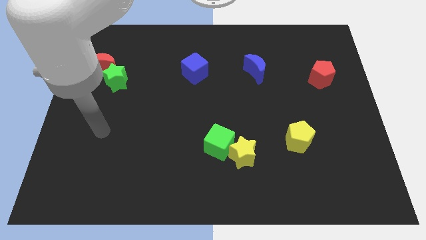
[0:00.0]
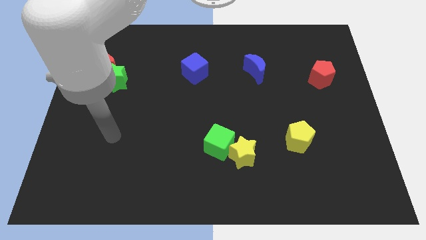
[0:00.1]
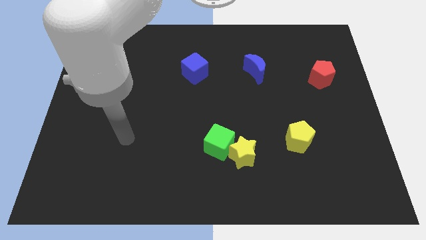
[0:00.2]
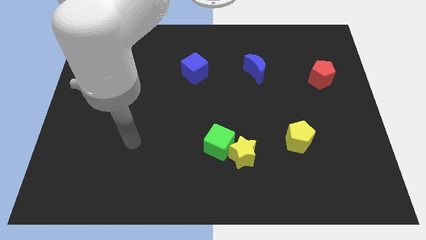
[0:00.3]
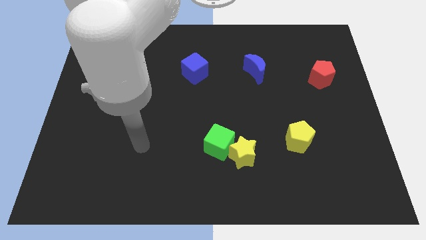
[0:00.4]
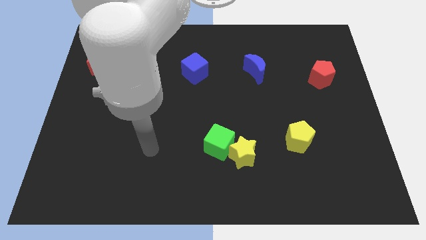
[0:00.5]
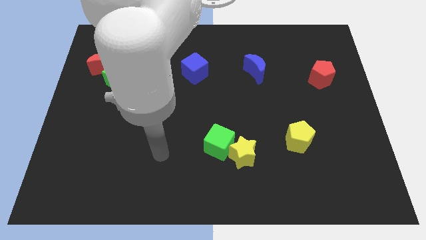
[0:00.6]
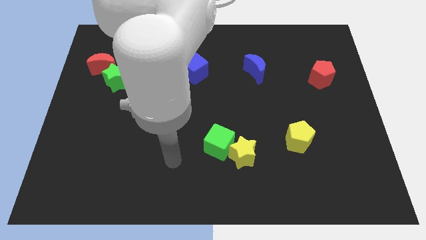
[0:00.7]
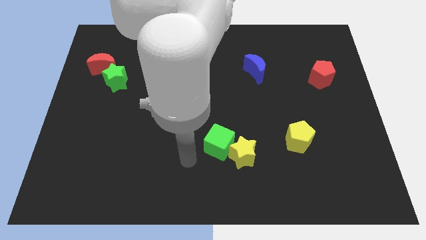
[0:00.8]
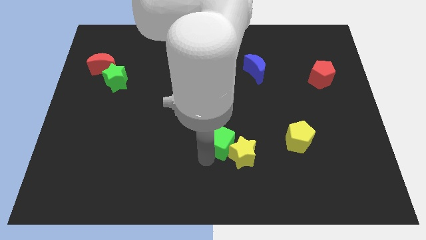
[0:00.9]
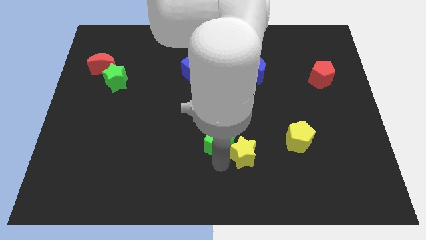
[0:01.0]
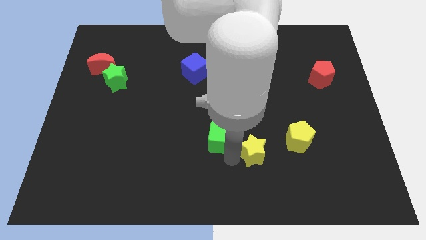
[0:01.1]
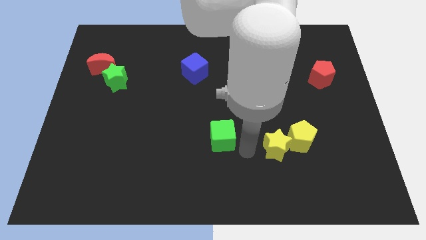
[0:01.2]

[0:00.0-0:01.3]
pull the green cube apart from the yellow star

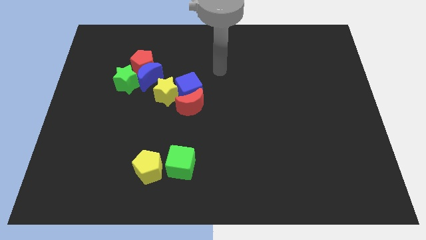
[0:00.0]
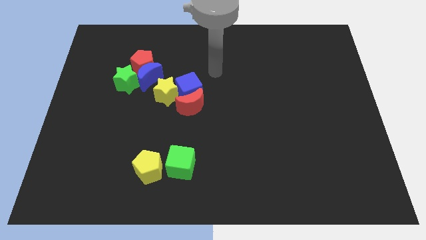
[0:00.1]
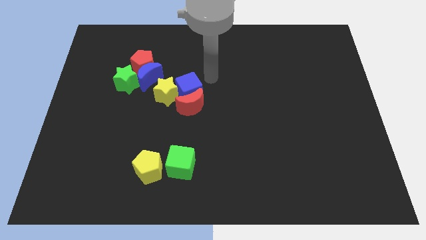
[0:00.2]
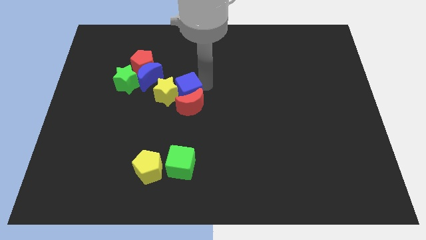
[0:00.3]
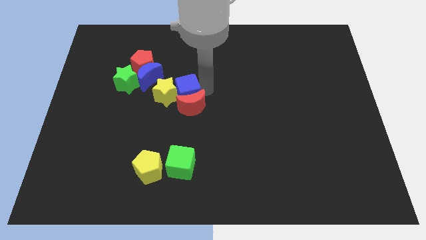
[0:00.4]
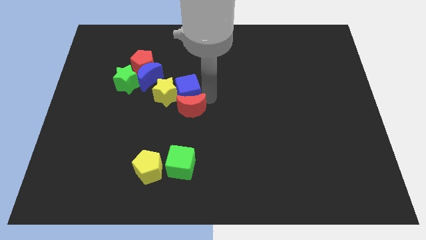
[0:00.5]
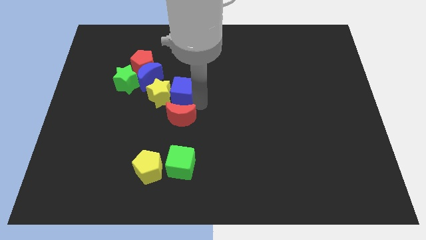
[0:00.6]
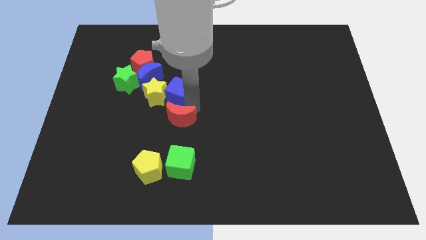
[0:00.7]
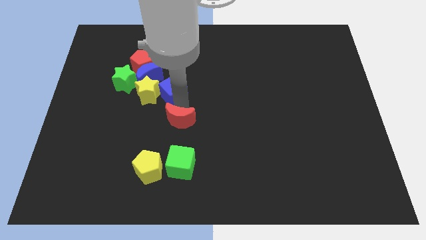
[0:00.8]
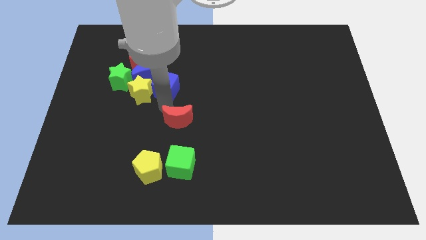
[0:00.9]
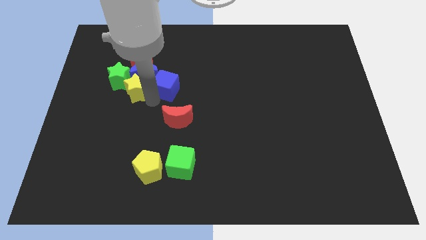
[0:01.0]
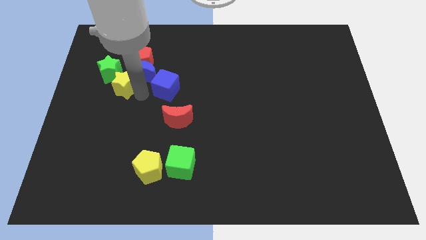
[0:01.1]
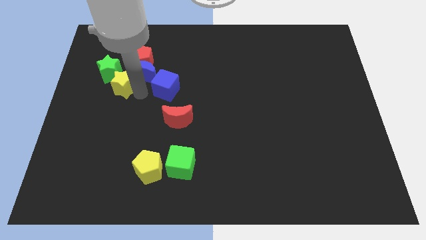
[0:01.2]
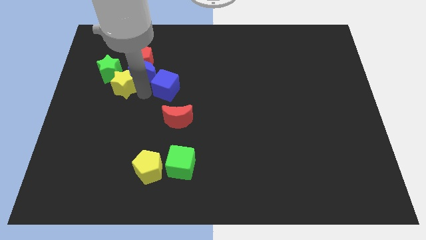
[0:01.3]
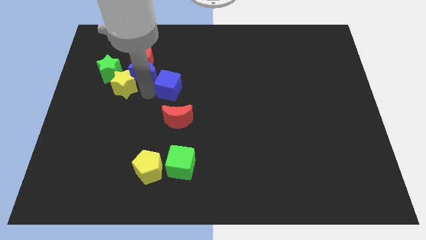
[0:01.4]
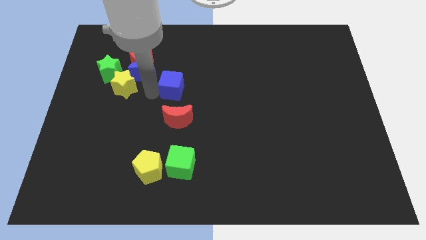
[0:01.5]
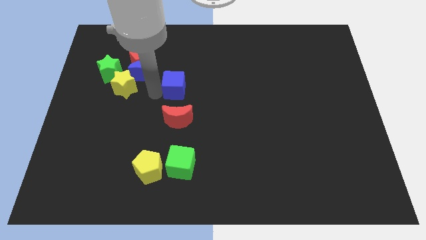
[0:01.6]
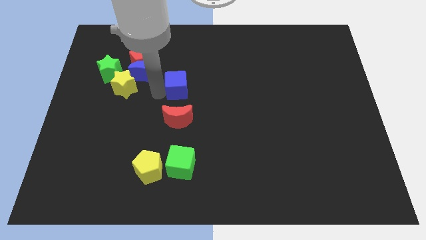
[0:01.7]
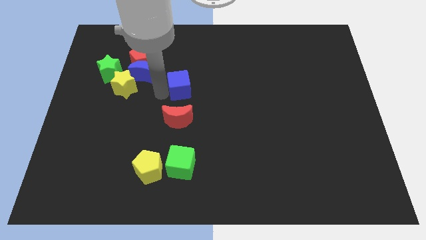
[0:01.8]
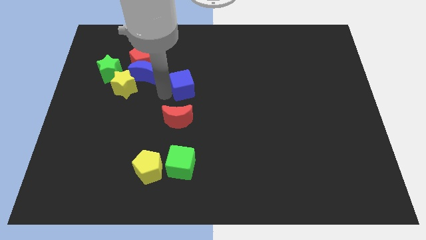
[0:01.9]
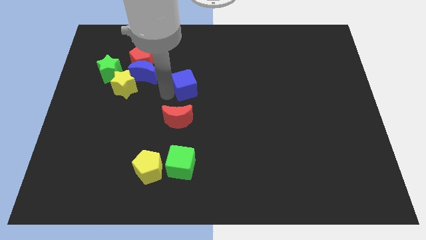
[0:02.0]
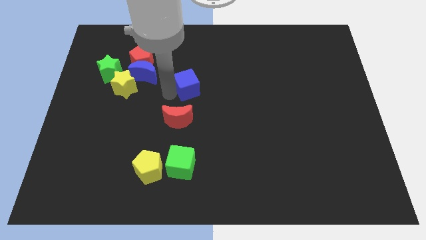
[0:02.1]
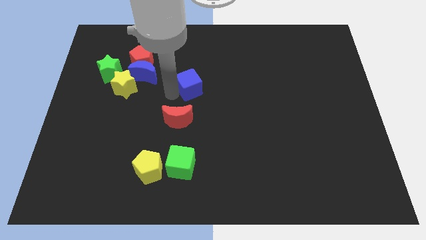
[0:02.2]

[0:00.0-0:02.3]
move the blue cube away from the red moon and yellow star

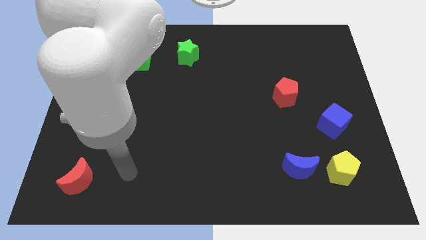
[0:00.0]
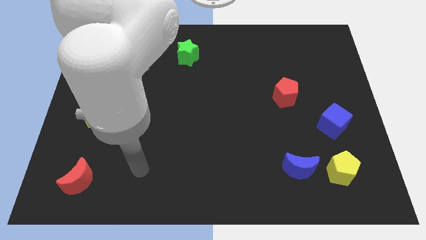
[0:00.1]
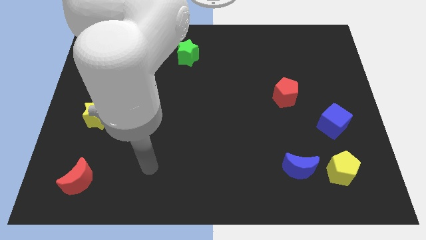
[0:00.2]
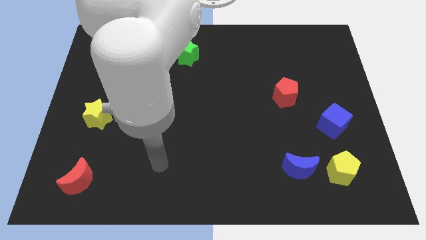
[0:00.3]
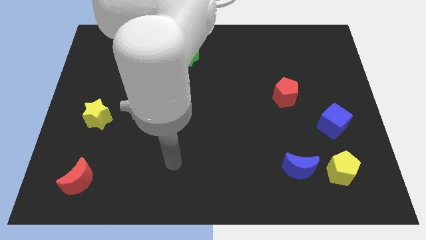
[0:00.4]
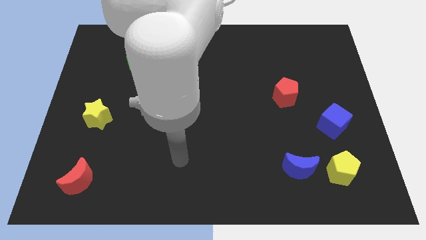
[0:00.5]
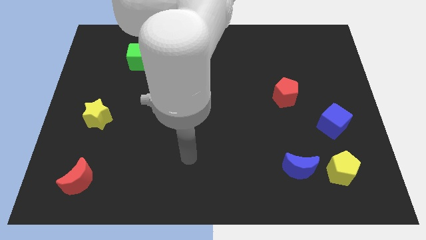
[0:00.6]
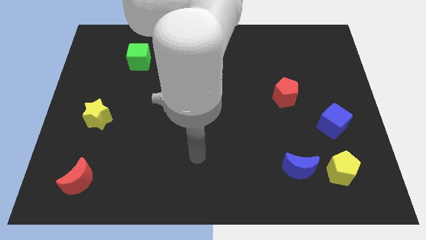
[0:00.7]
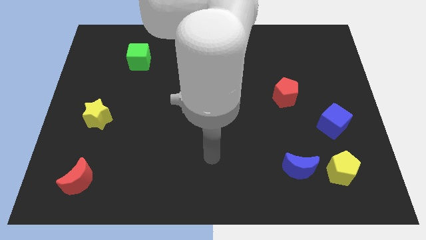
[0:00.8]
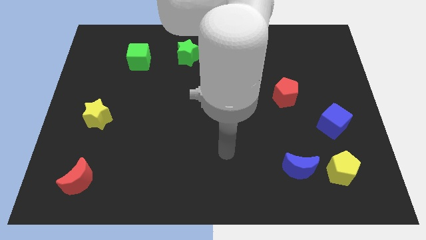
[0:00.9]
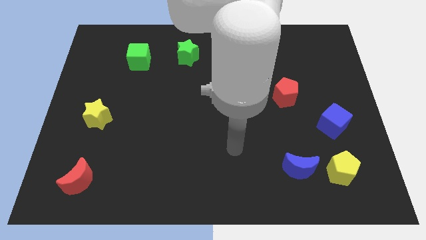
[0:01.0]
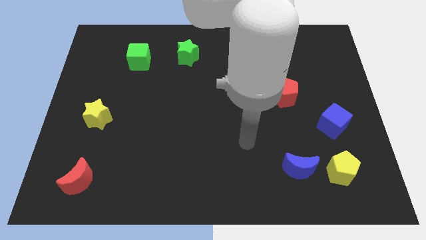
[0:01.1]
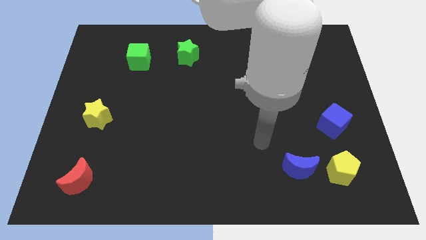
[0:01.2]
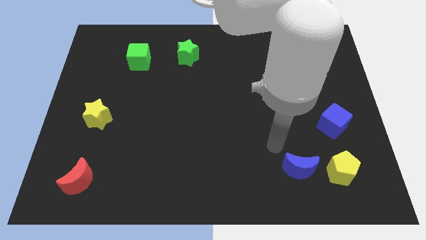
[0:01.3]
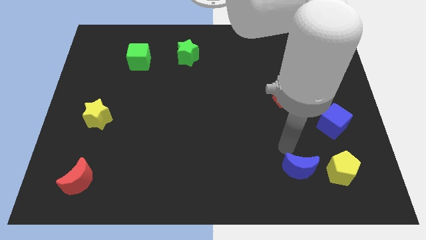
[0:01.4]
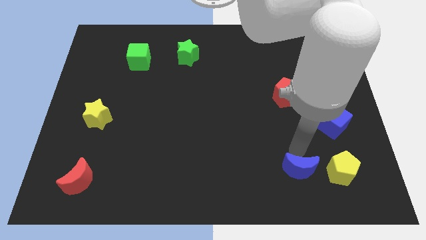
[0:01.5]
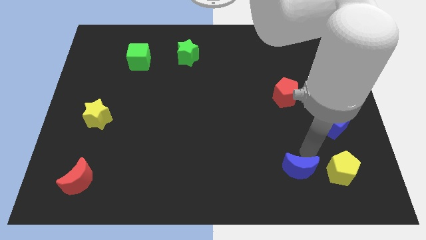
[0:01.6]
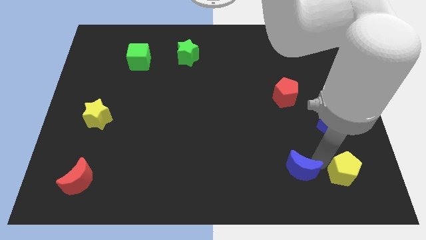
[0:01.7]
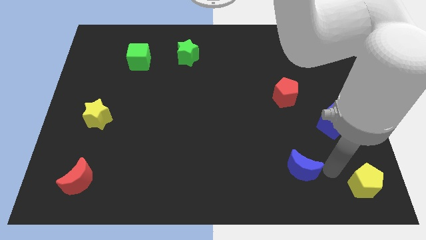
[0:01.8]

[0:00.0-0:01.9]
pull the blue moon apart from the yellow pentagon

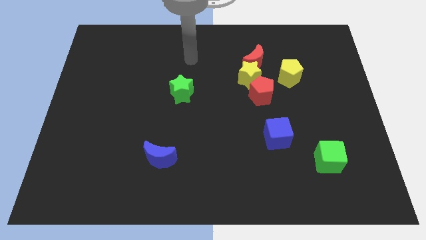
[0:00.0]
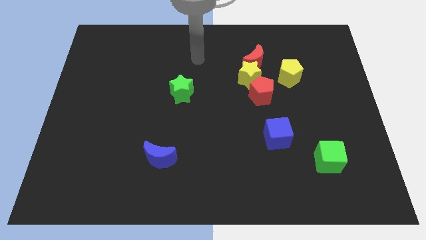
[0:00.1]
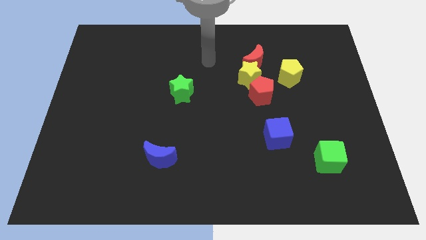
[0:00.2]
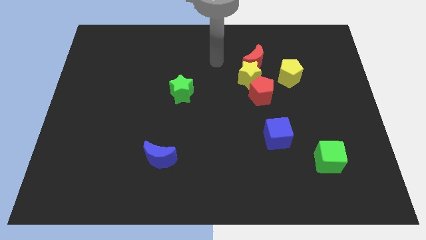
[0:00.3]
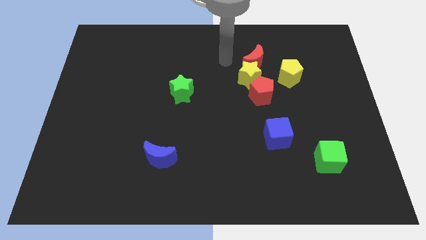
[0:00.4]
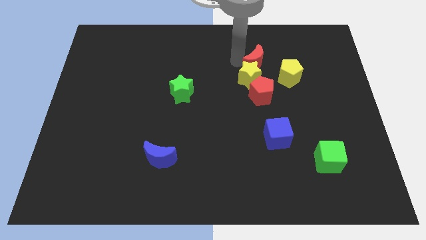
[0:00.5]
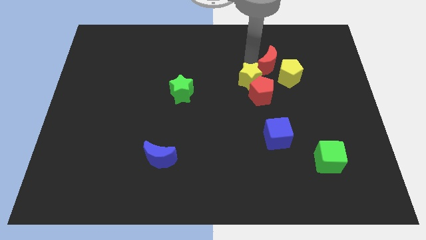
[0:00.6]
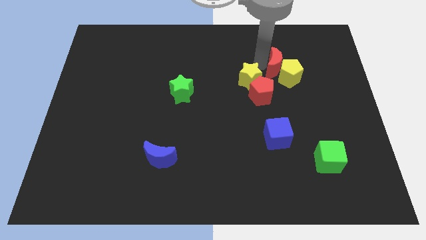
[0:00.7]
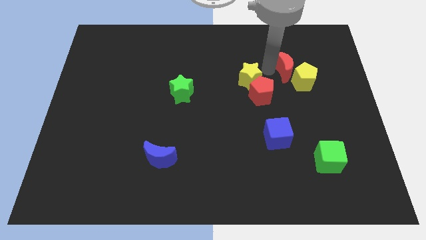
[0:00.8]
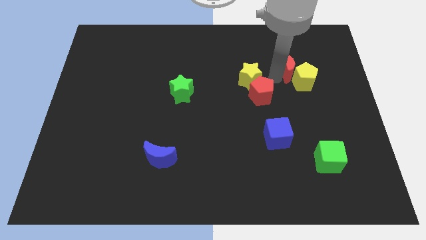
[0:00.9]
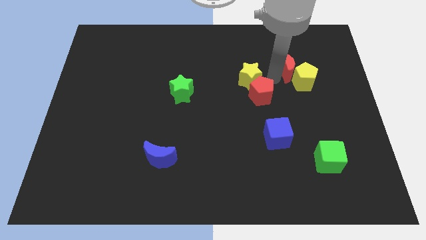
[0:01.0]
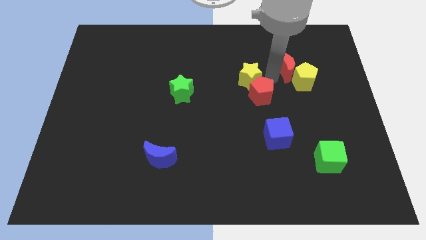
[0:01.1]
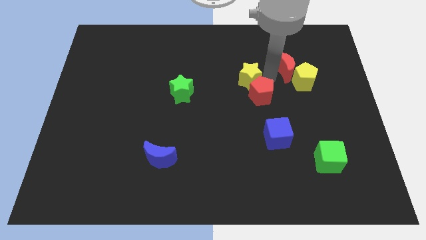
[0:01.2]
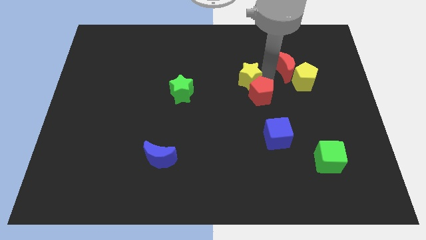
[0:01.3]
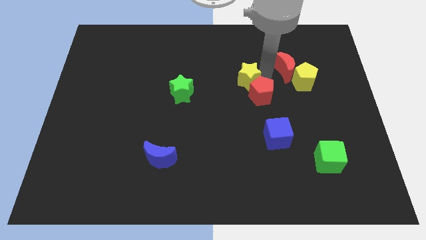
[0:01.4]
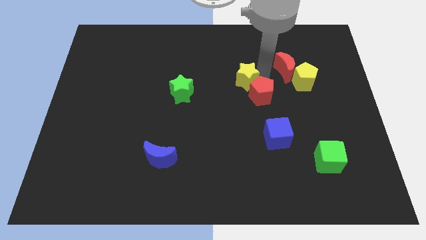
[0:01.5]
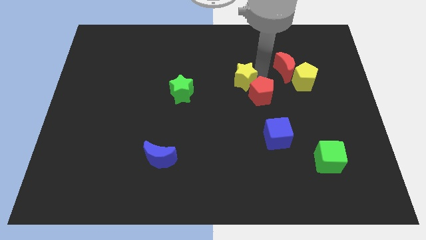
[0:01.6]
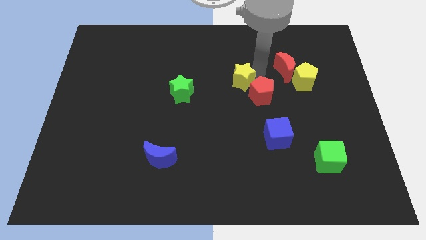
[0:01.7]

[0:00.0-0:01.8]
move the yellow star away from the red moon, red pentagon, and yellow pentagon

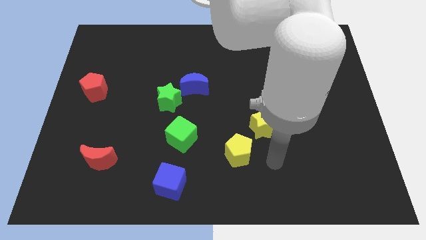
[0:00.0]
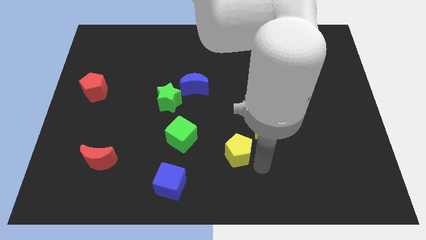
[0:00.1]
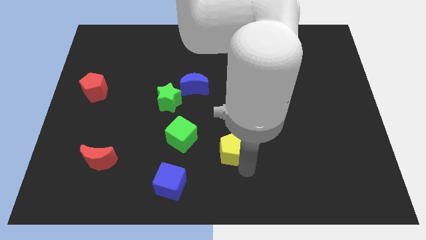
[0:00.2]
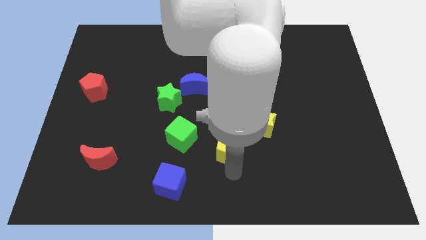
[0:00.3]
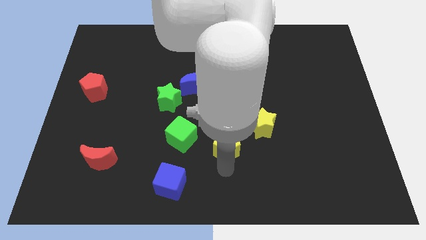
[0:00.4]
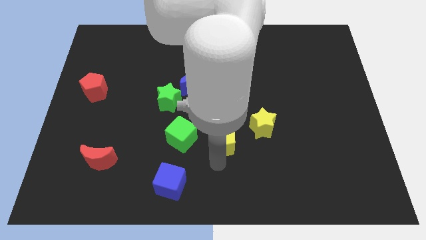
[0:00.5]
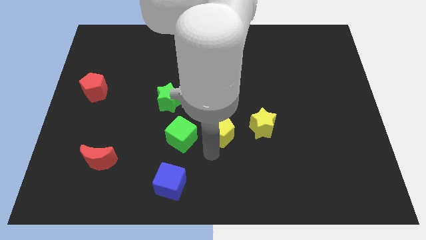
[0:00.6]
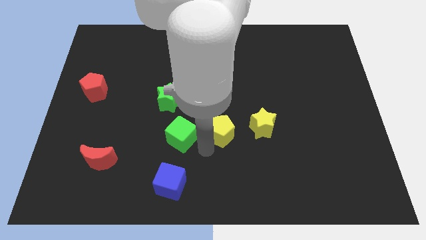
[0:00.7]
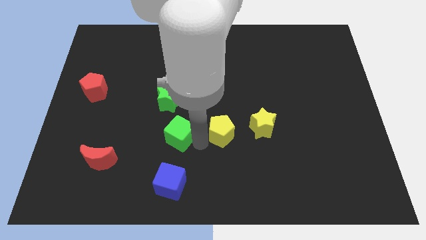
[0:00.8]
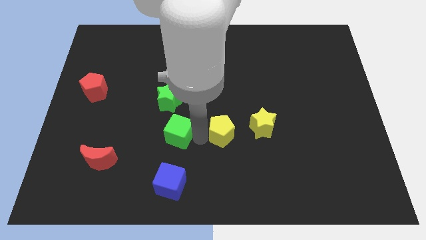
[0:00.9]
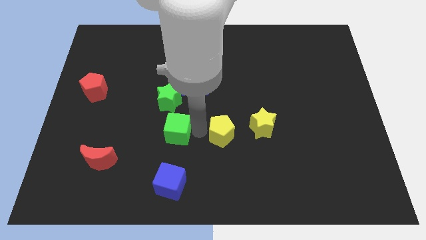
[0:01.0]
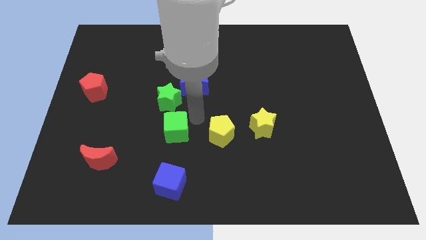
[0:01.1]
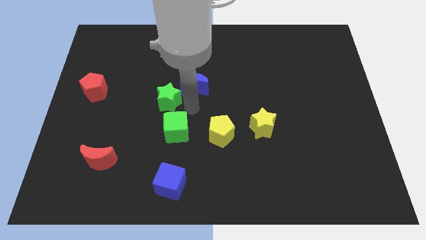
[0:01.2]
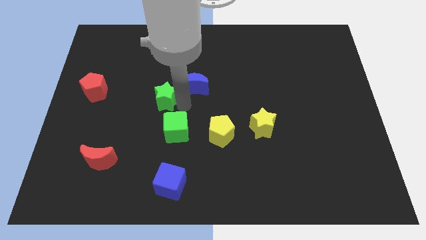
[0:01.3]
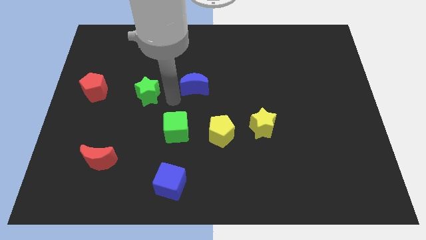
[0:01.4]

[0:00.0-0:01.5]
separate the blue moon from the green star

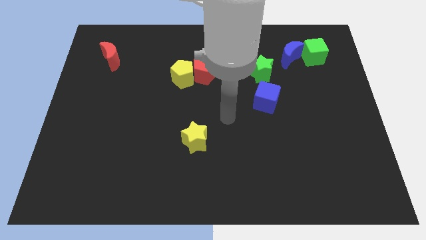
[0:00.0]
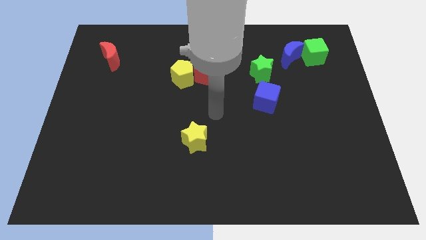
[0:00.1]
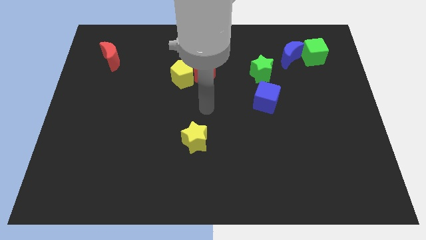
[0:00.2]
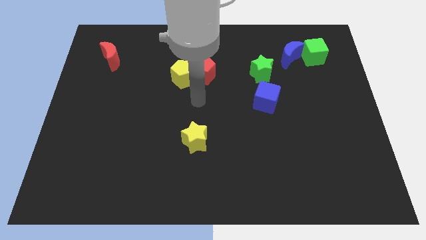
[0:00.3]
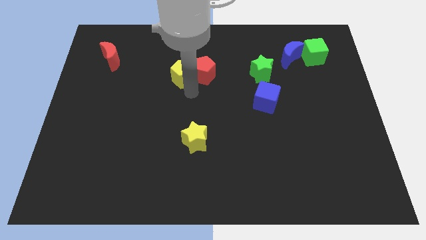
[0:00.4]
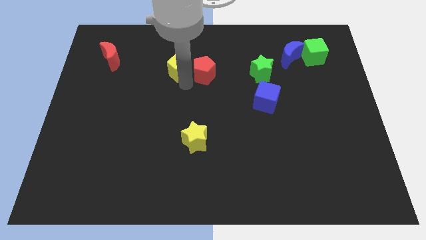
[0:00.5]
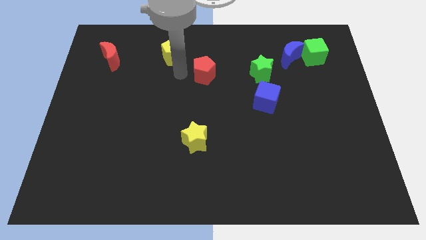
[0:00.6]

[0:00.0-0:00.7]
pull the red pentagon apart from the yellow pentagon
